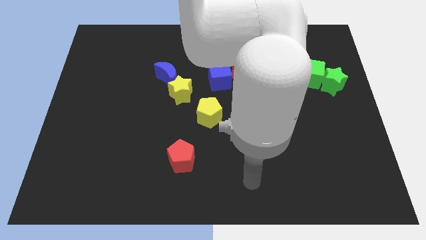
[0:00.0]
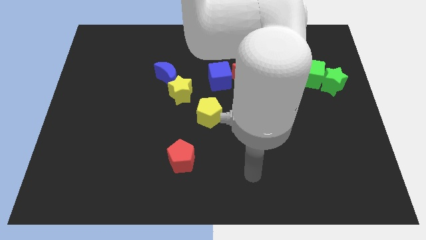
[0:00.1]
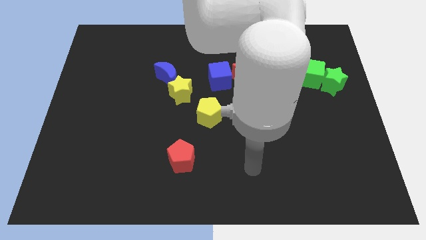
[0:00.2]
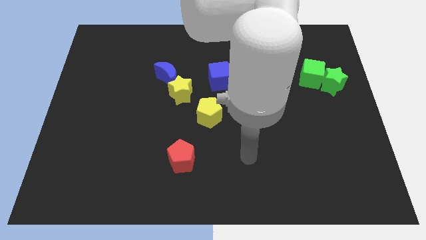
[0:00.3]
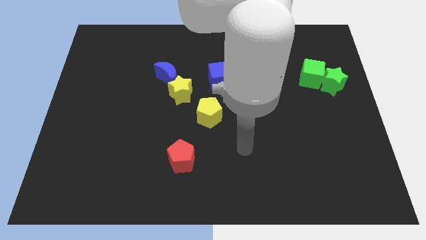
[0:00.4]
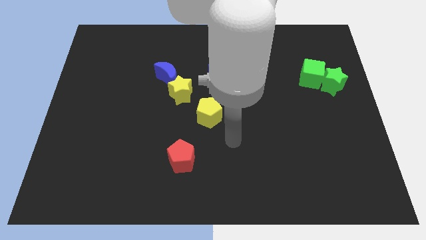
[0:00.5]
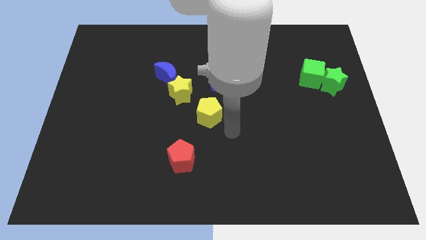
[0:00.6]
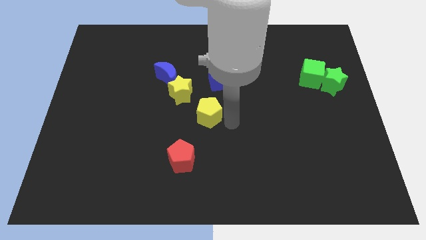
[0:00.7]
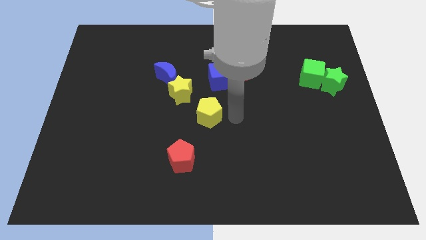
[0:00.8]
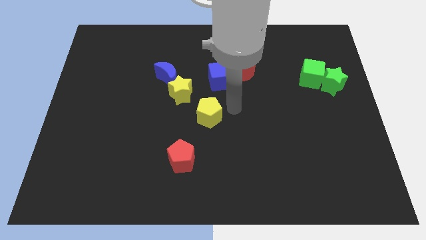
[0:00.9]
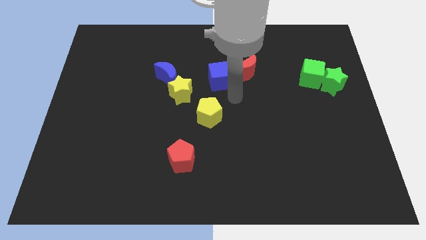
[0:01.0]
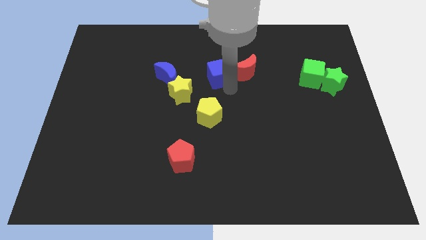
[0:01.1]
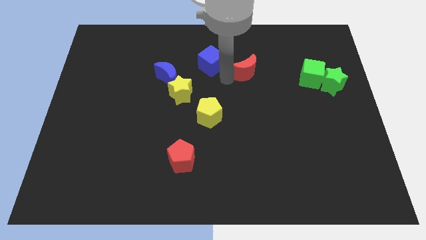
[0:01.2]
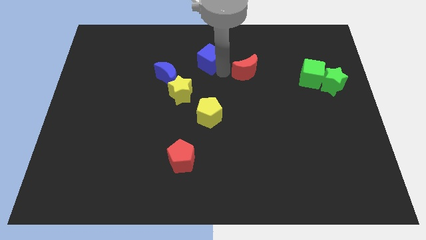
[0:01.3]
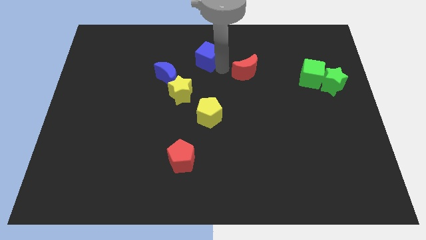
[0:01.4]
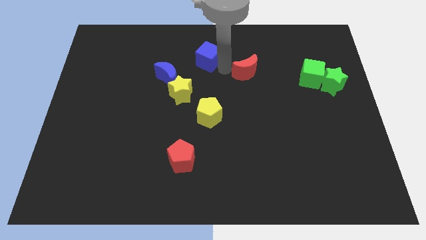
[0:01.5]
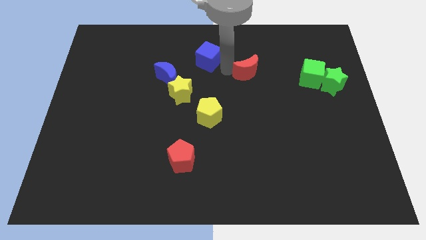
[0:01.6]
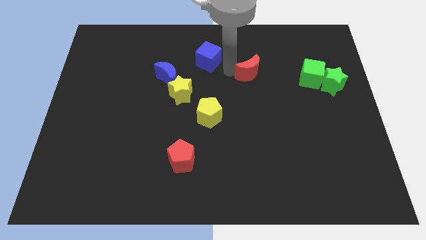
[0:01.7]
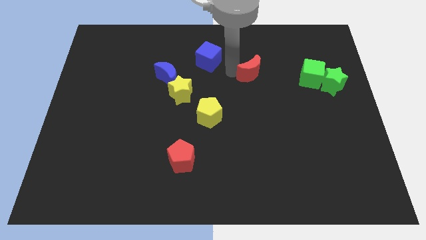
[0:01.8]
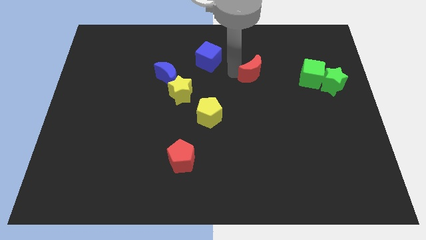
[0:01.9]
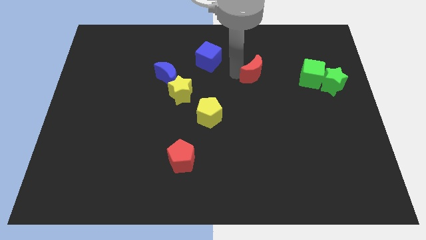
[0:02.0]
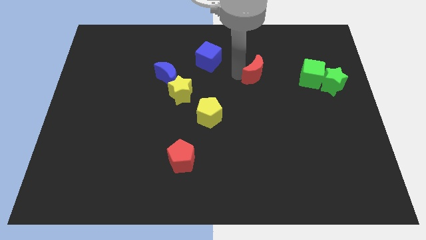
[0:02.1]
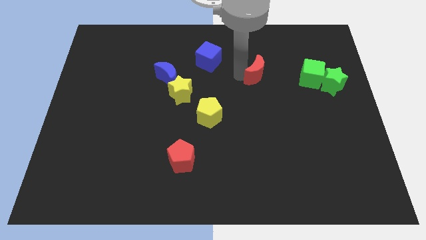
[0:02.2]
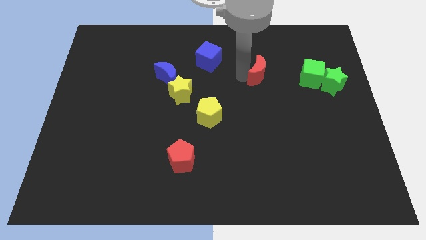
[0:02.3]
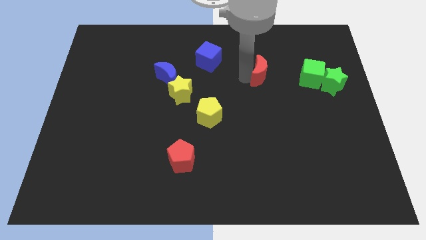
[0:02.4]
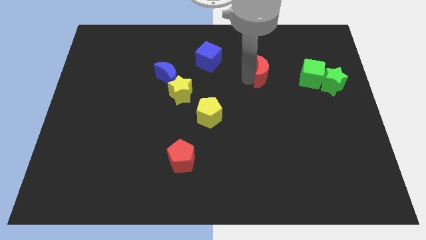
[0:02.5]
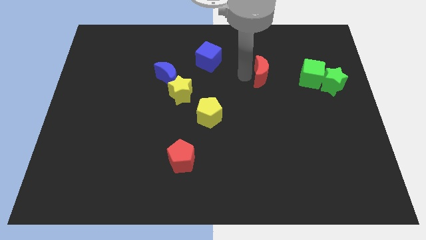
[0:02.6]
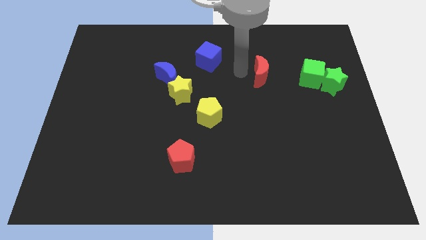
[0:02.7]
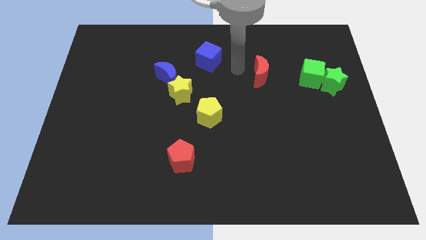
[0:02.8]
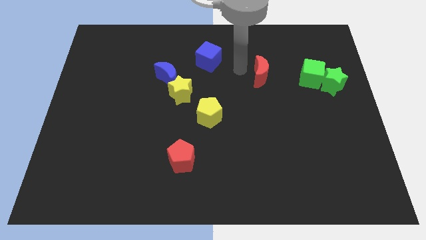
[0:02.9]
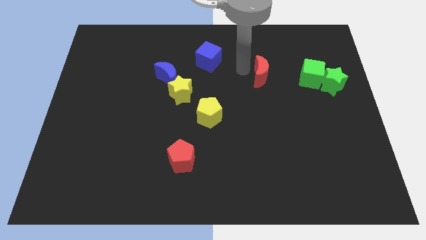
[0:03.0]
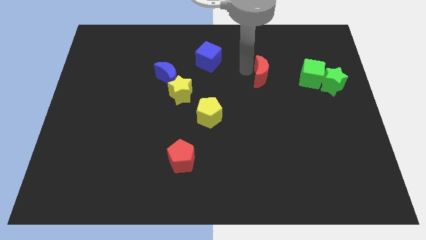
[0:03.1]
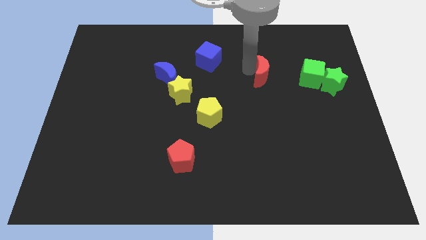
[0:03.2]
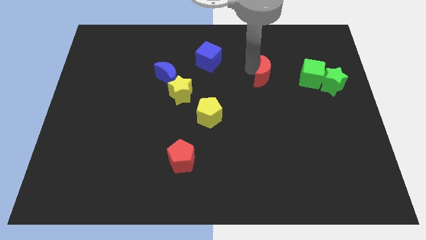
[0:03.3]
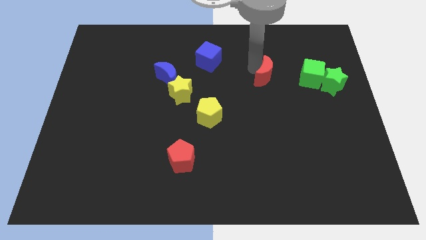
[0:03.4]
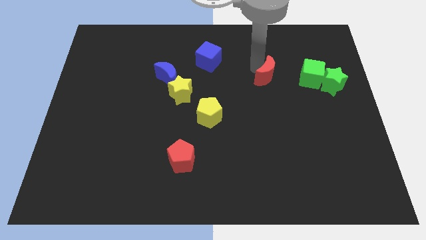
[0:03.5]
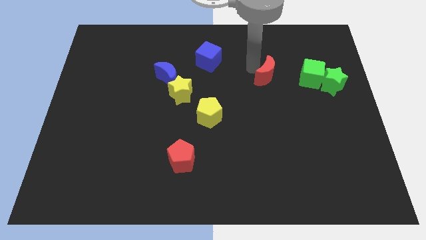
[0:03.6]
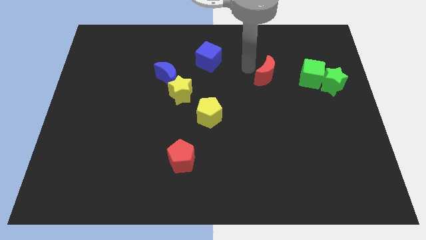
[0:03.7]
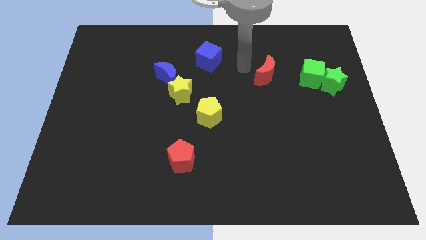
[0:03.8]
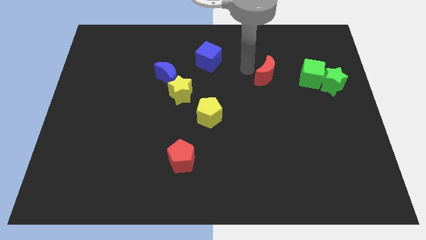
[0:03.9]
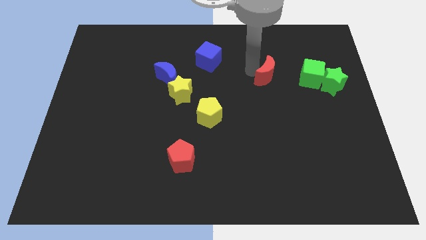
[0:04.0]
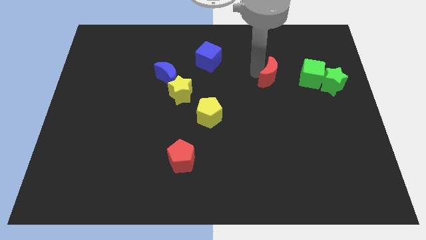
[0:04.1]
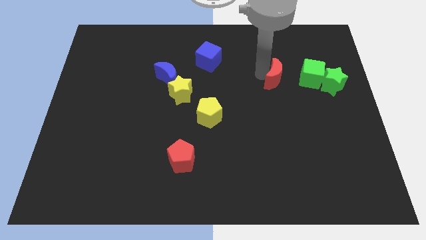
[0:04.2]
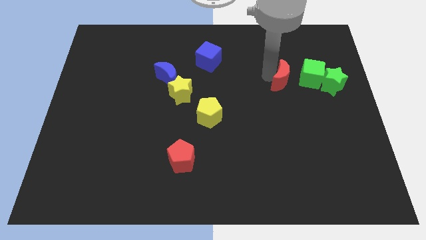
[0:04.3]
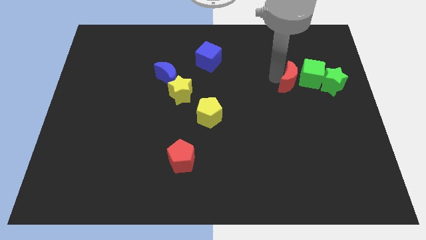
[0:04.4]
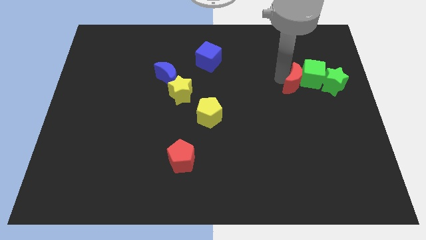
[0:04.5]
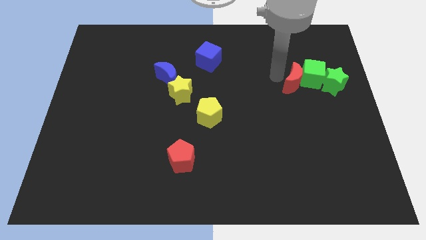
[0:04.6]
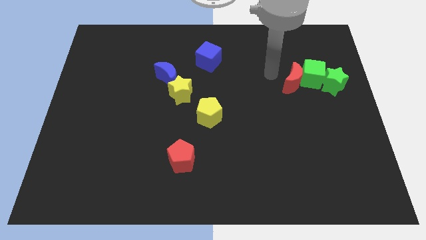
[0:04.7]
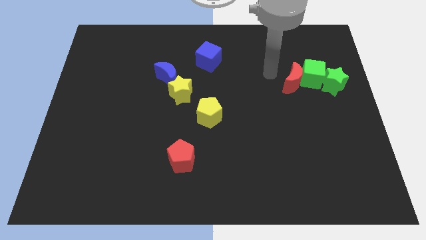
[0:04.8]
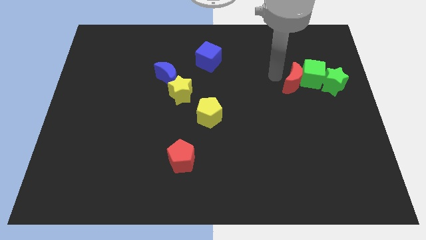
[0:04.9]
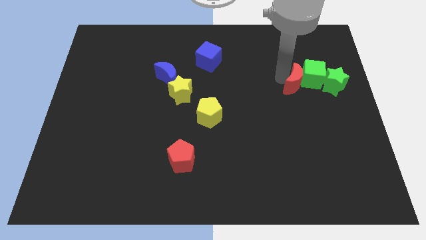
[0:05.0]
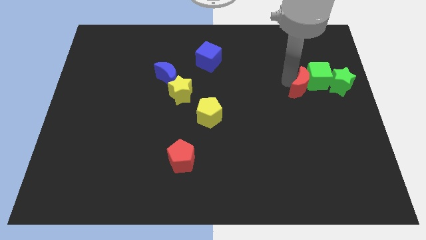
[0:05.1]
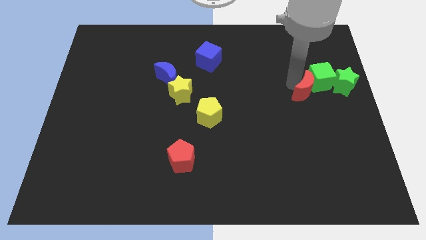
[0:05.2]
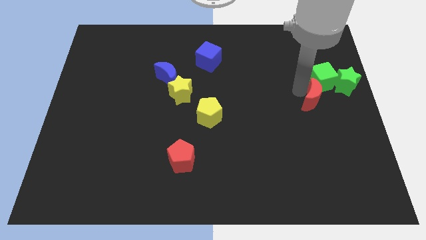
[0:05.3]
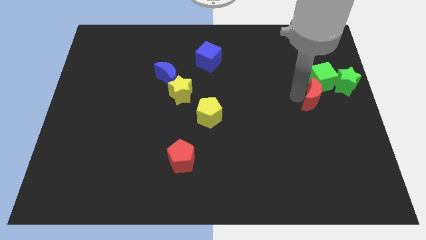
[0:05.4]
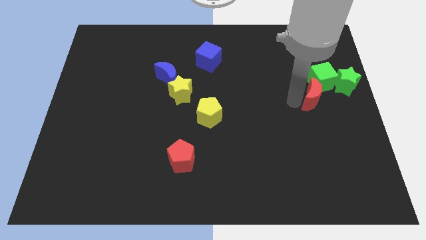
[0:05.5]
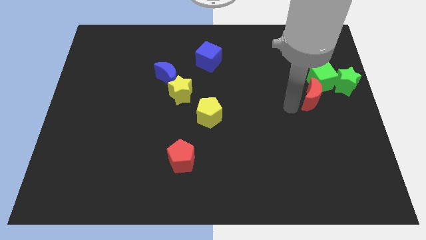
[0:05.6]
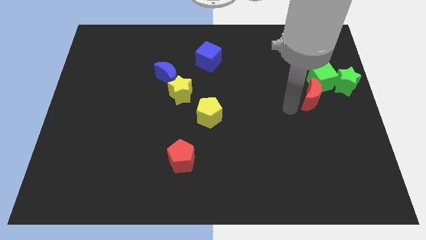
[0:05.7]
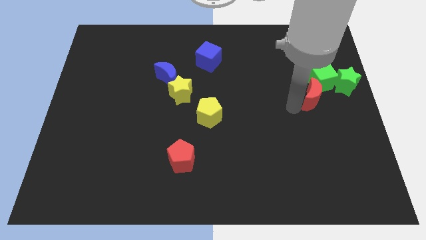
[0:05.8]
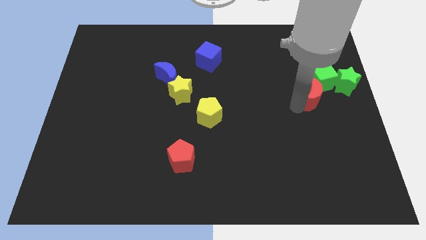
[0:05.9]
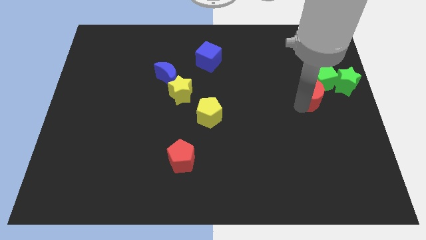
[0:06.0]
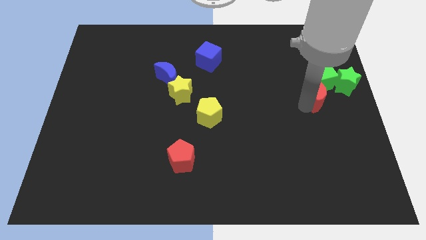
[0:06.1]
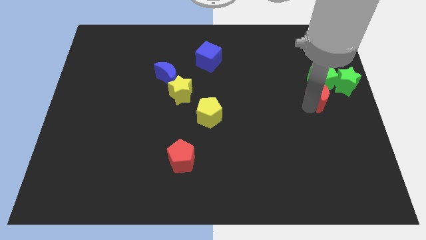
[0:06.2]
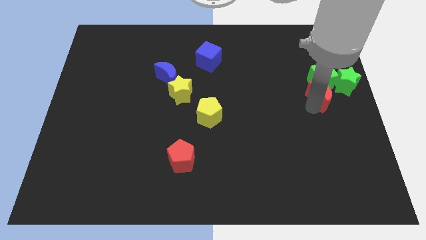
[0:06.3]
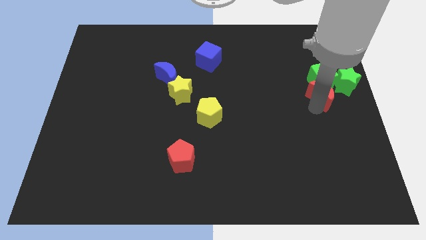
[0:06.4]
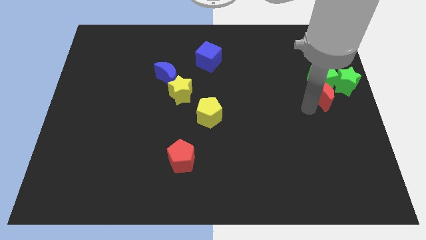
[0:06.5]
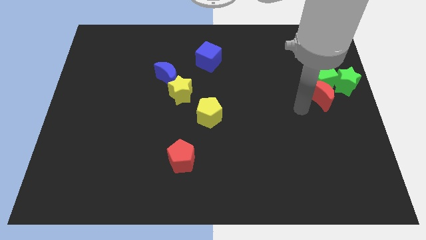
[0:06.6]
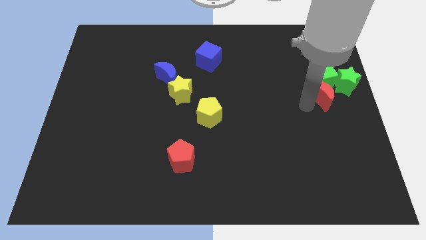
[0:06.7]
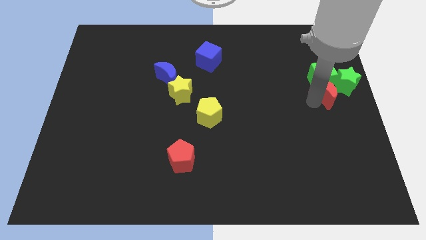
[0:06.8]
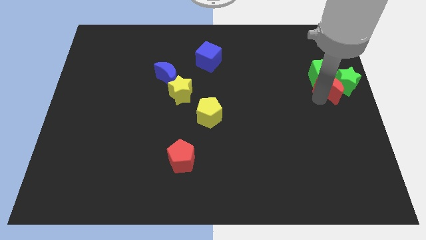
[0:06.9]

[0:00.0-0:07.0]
put the red moon next to the green star
